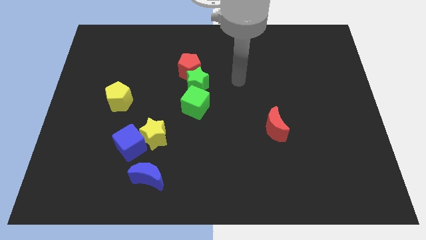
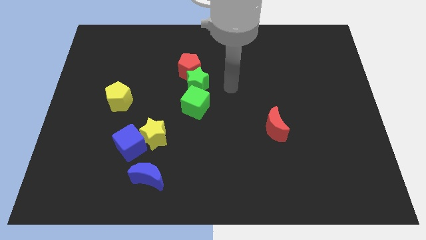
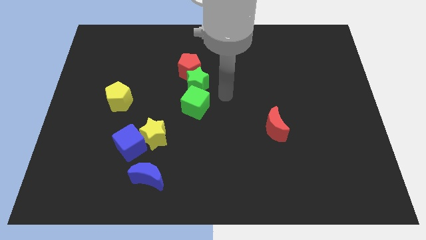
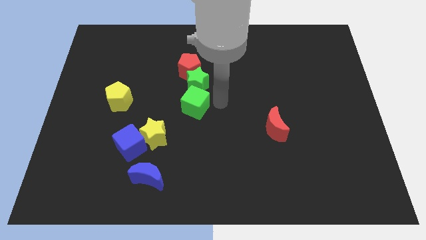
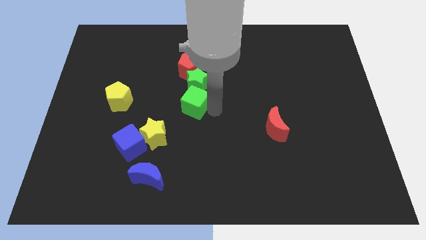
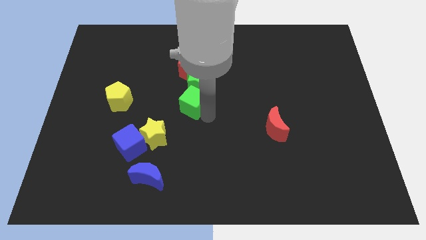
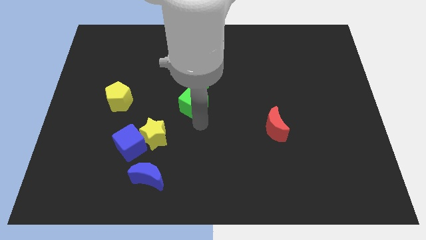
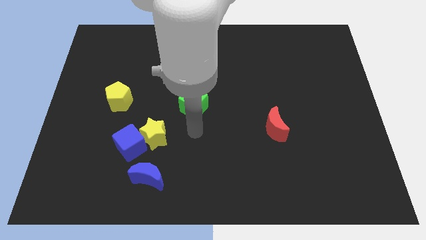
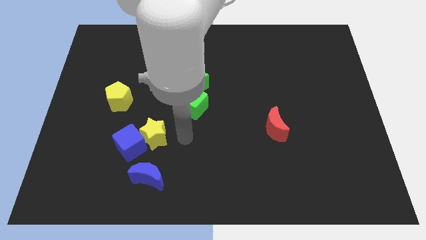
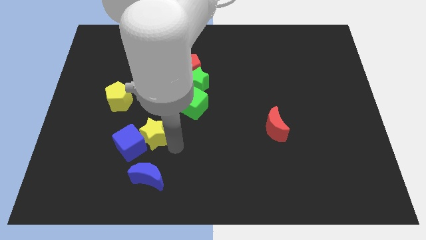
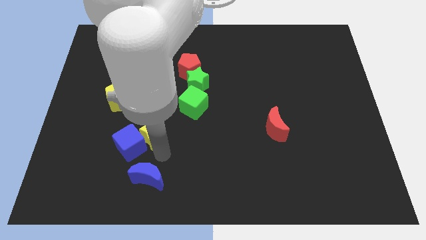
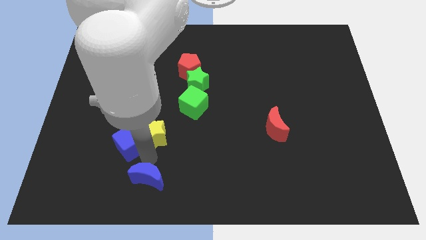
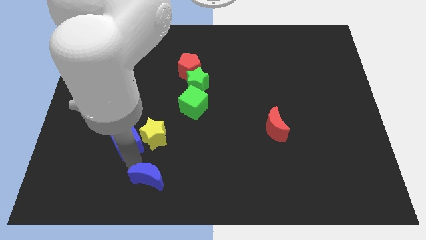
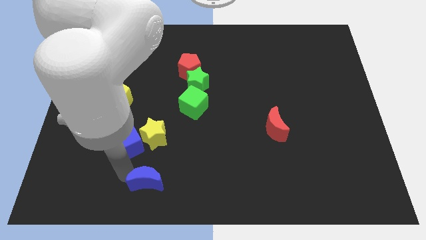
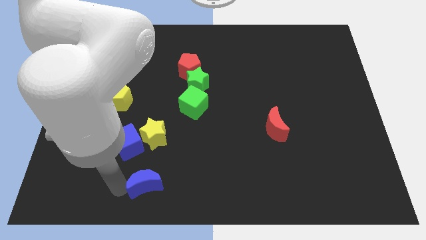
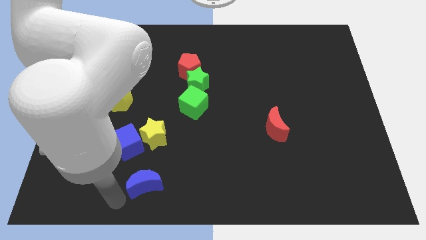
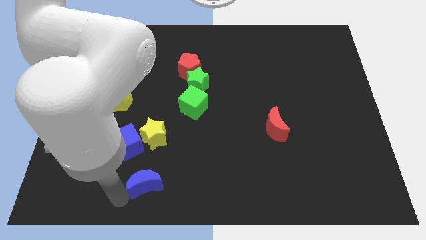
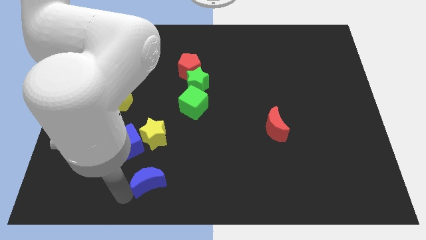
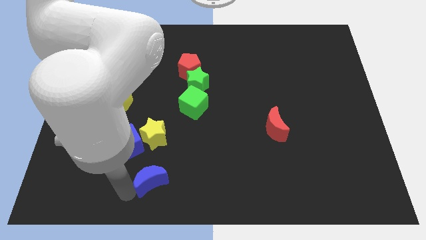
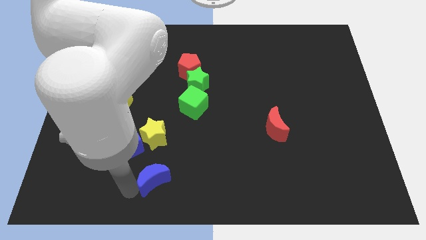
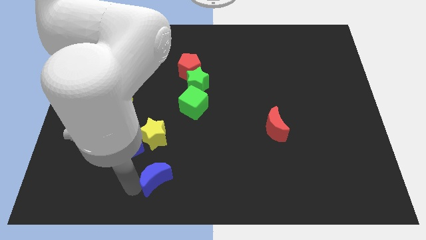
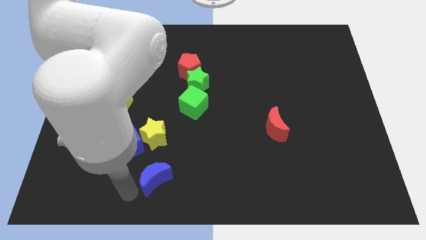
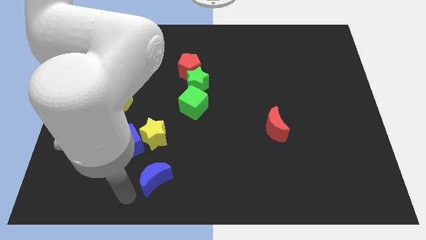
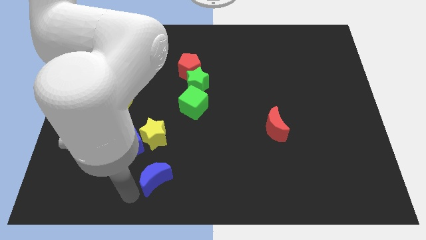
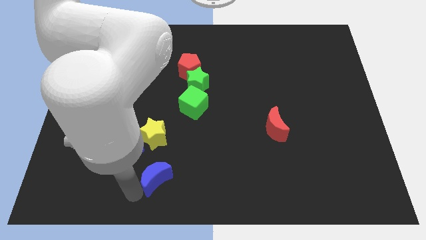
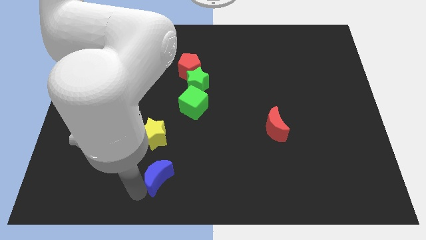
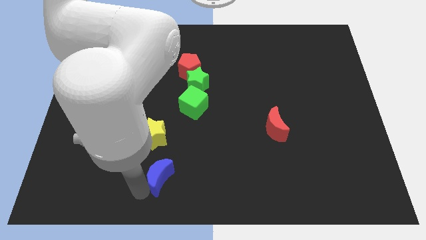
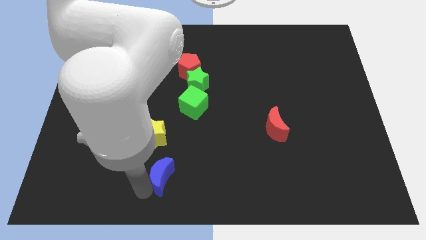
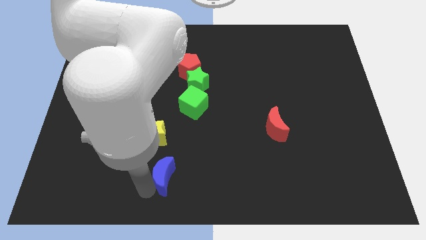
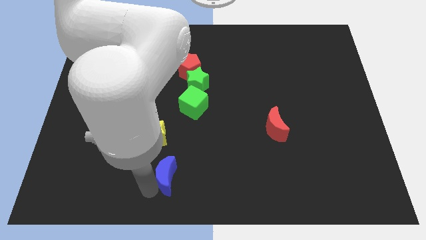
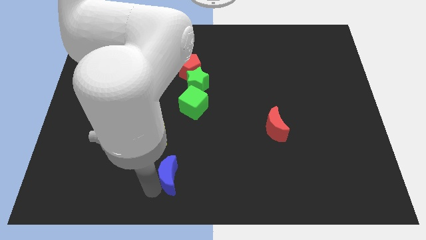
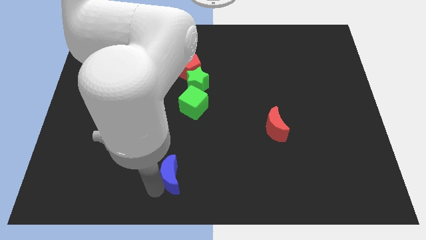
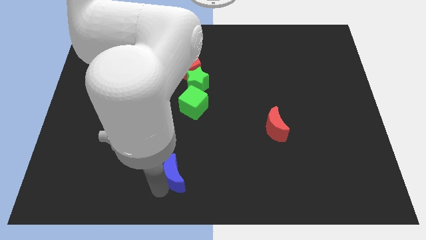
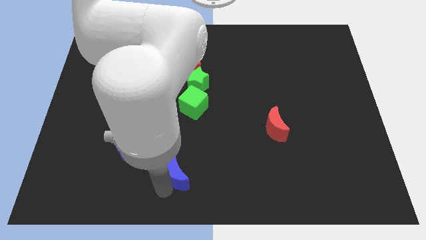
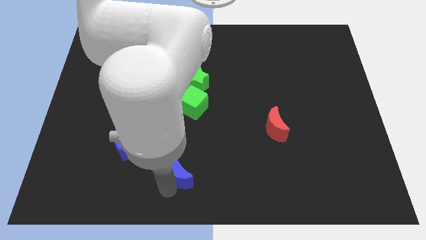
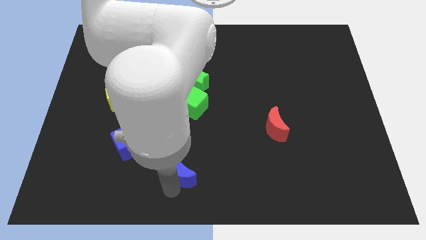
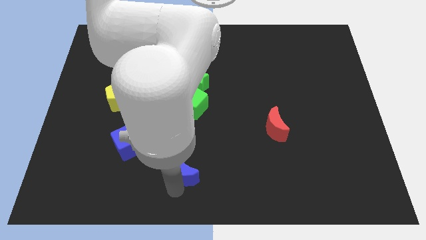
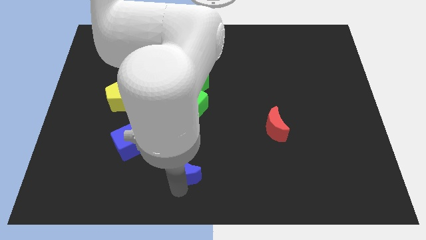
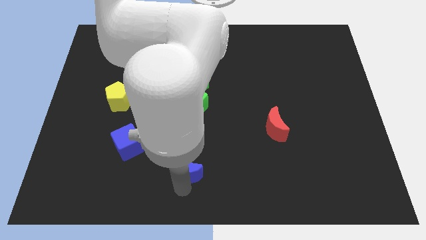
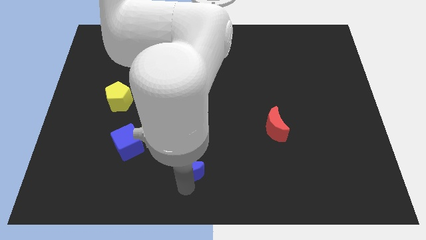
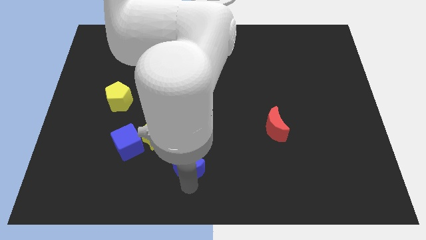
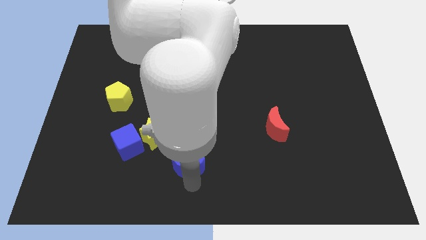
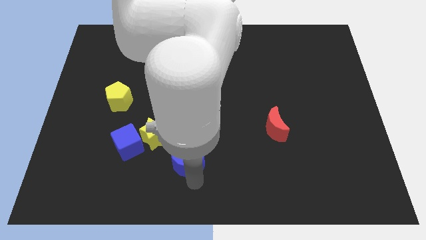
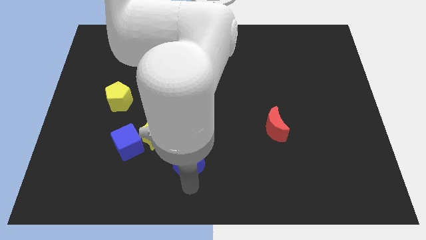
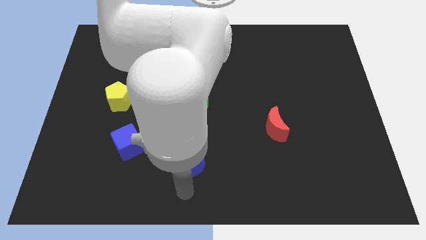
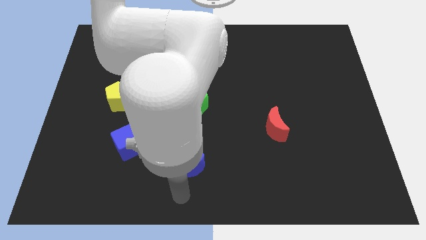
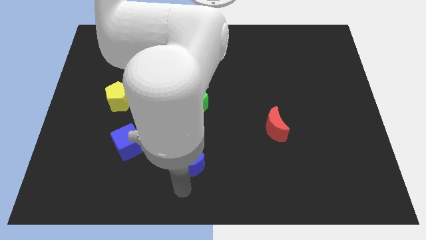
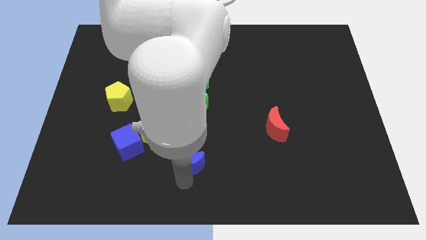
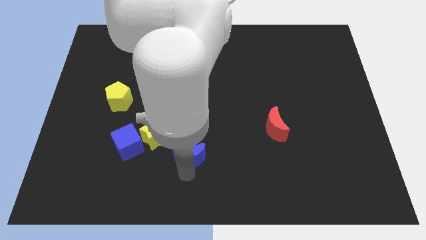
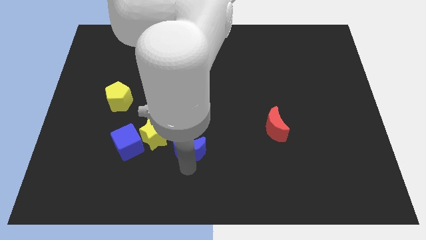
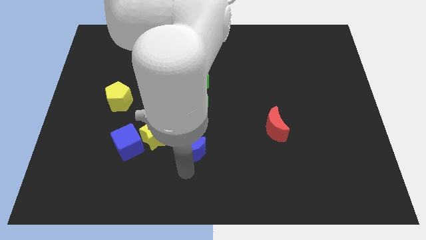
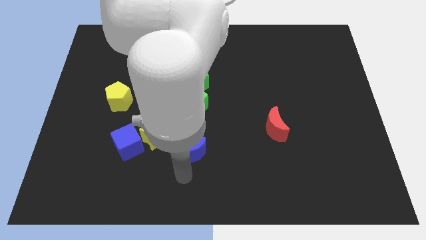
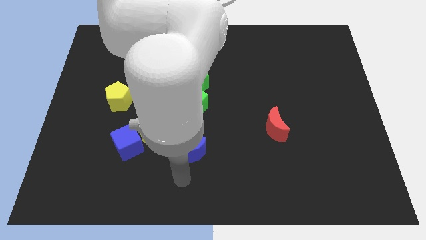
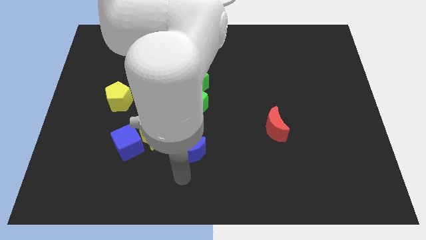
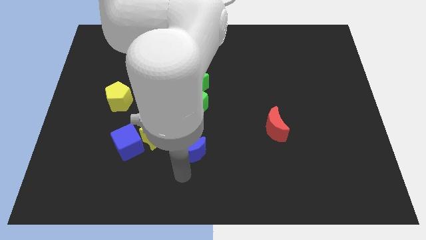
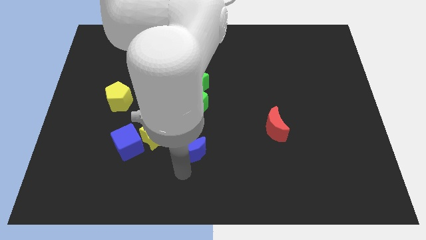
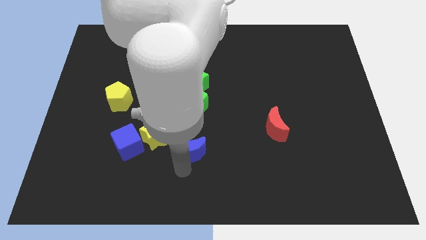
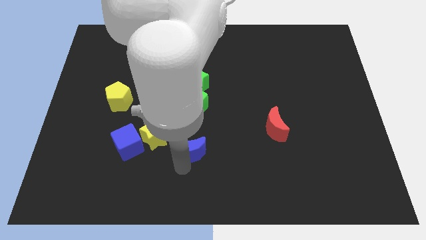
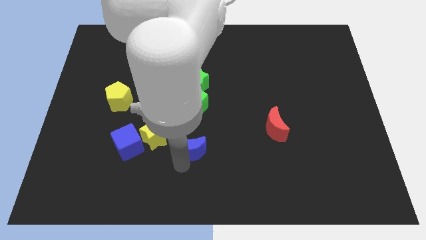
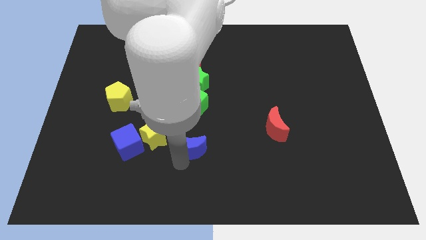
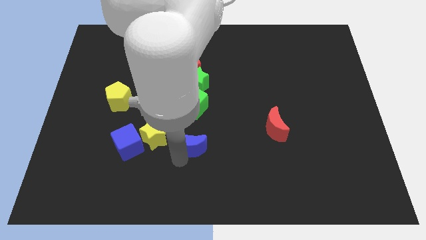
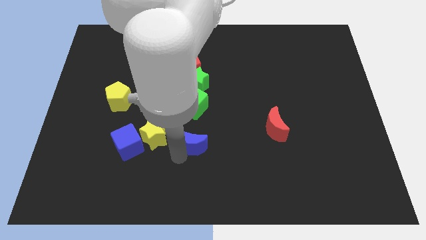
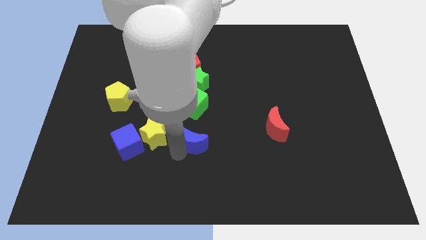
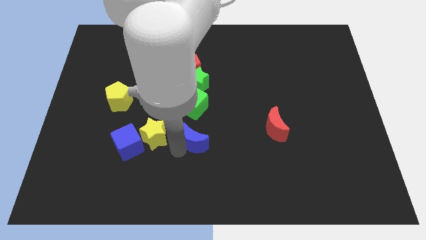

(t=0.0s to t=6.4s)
move the blue moon to the center

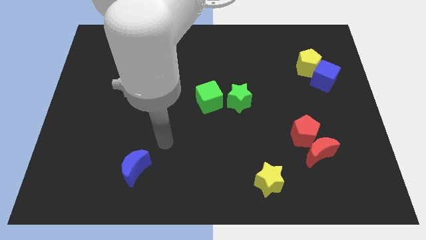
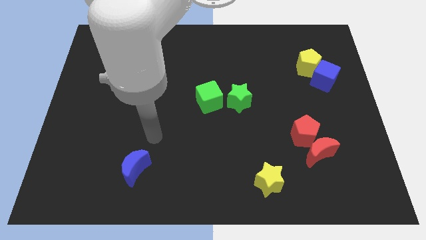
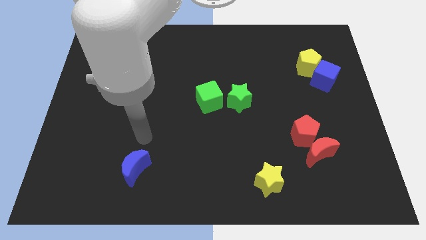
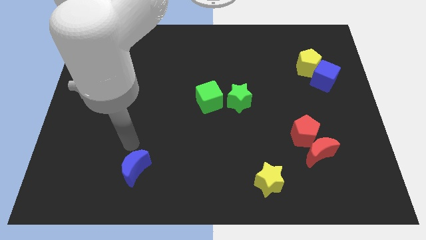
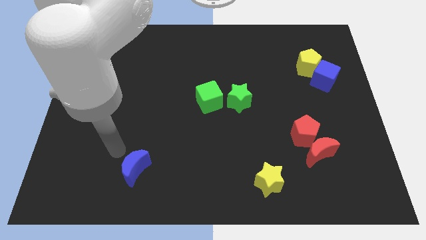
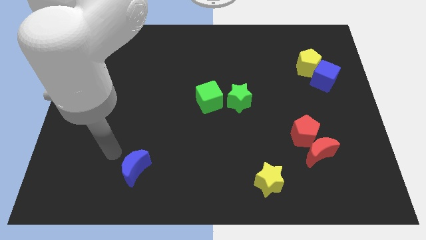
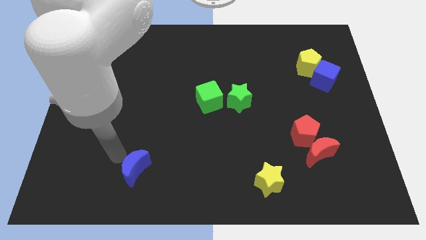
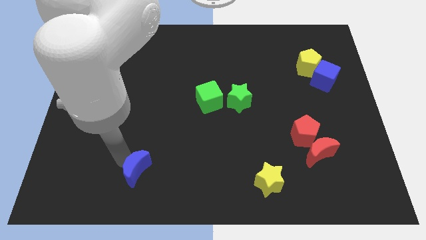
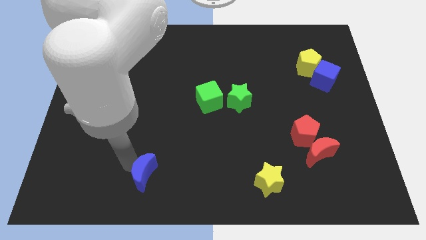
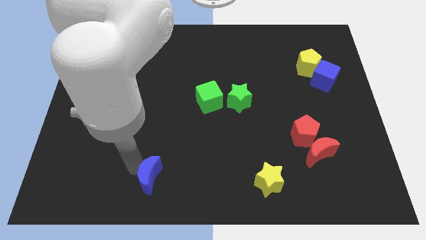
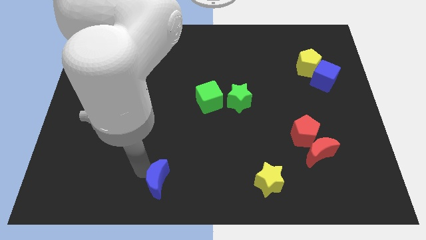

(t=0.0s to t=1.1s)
push the blue moon to the bottom side
